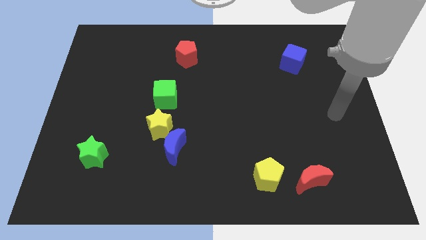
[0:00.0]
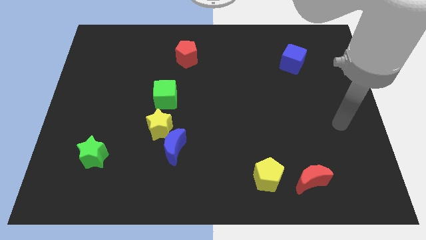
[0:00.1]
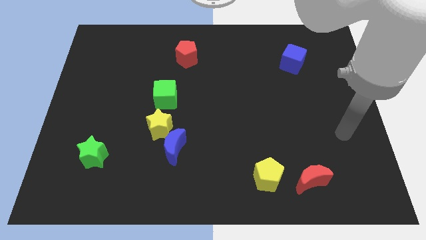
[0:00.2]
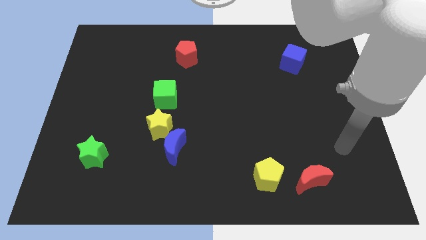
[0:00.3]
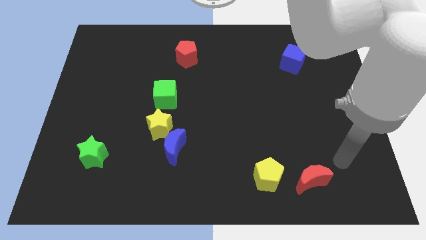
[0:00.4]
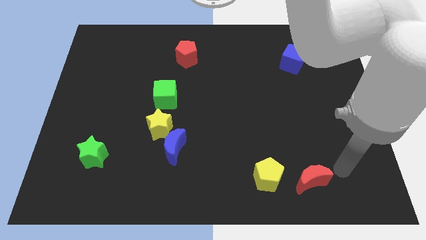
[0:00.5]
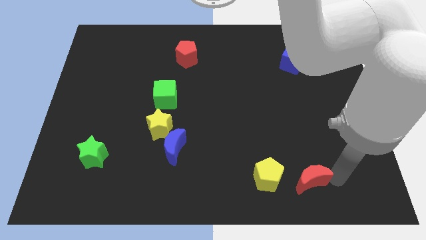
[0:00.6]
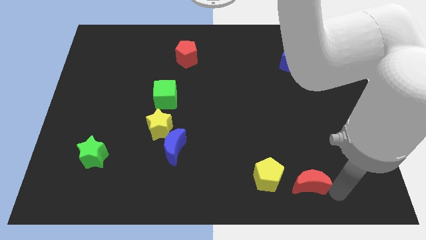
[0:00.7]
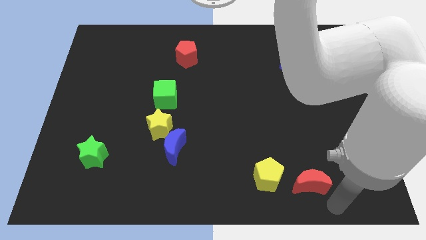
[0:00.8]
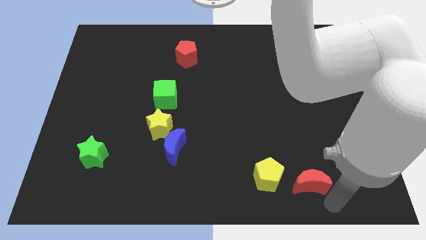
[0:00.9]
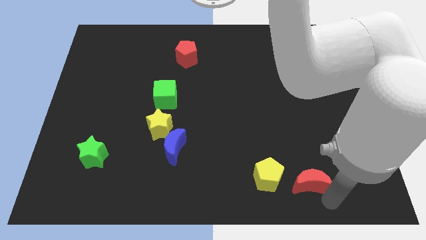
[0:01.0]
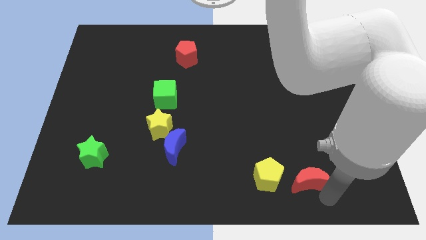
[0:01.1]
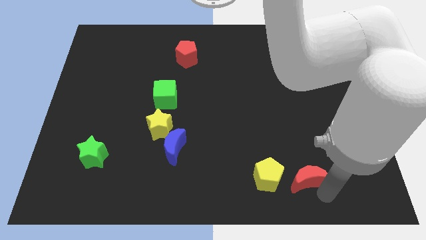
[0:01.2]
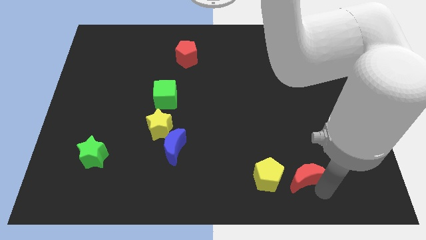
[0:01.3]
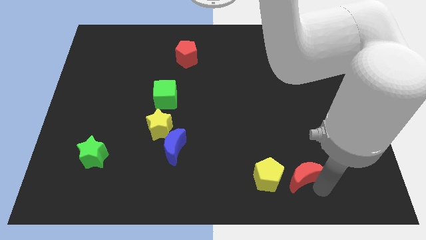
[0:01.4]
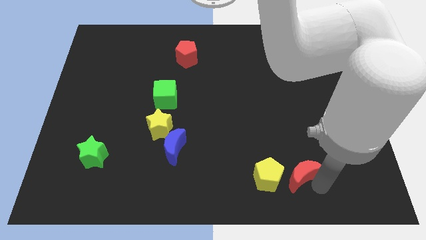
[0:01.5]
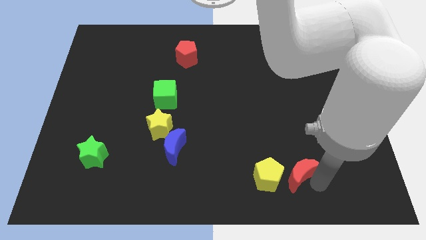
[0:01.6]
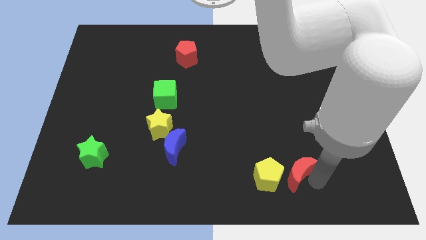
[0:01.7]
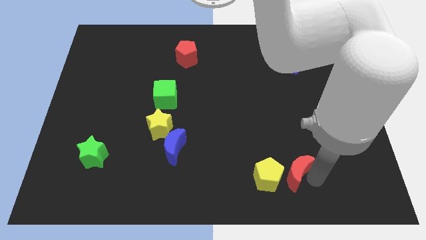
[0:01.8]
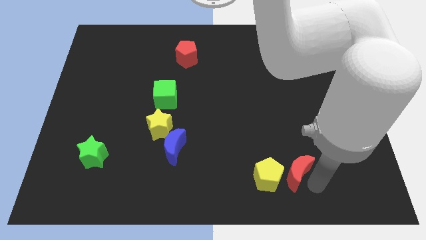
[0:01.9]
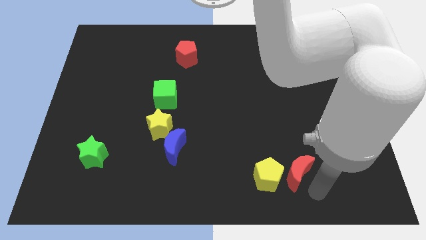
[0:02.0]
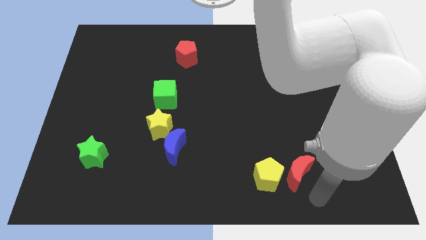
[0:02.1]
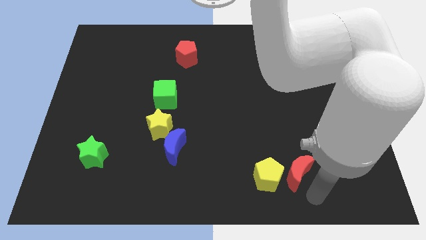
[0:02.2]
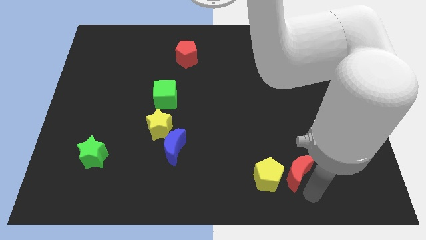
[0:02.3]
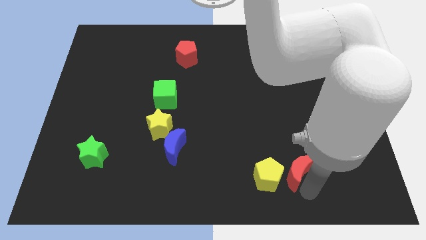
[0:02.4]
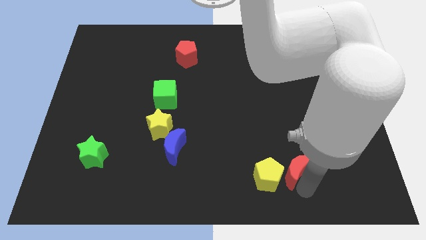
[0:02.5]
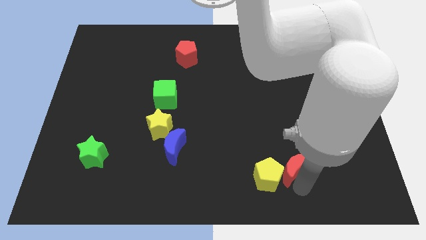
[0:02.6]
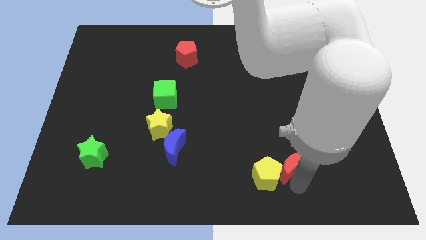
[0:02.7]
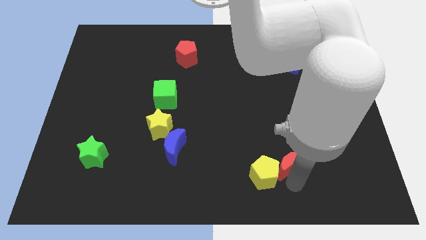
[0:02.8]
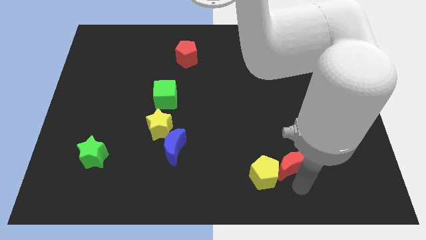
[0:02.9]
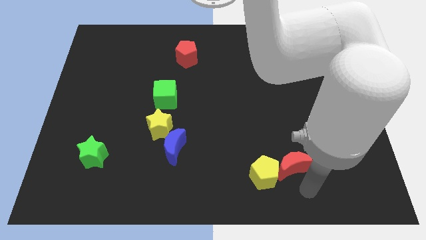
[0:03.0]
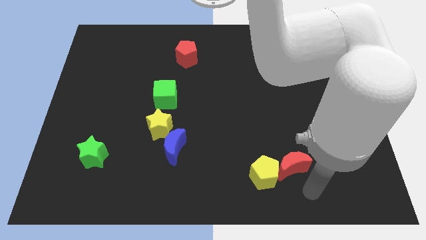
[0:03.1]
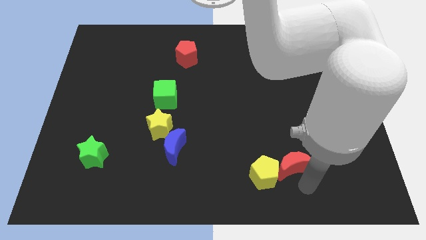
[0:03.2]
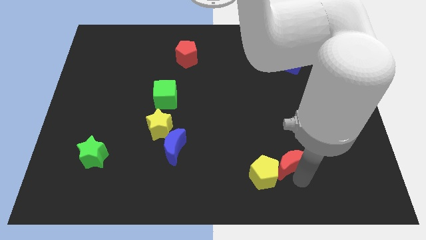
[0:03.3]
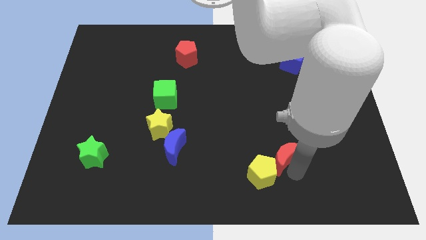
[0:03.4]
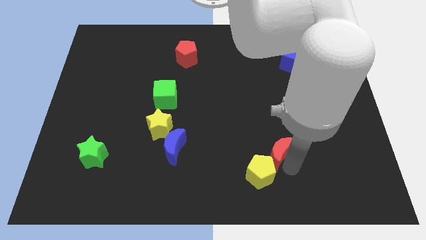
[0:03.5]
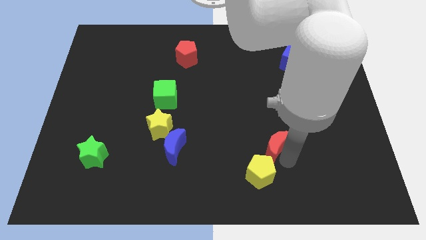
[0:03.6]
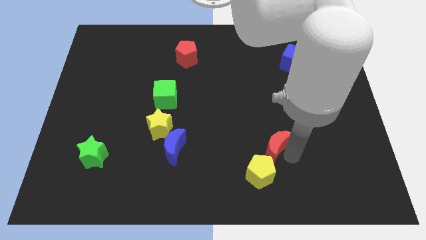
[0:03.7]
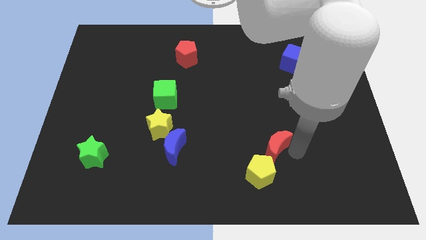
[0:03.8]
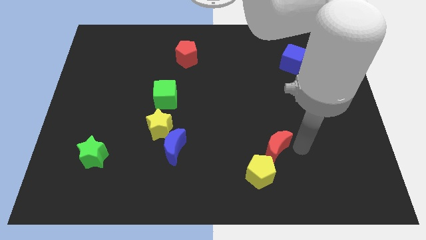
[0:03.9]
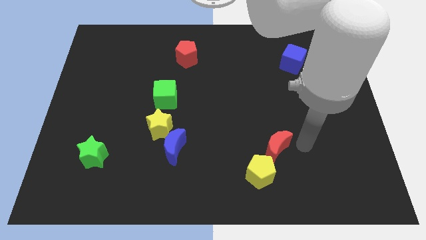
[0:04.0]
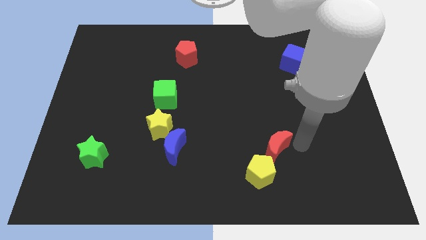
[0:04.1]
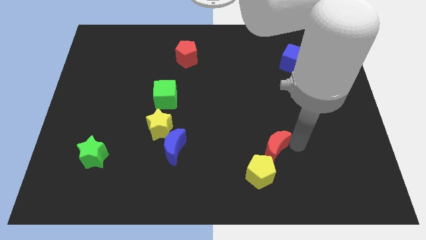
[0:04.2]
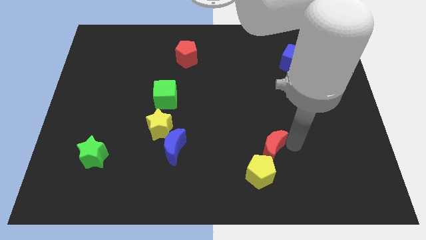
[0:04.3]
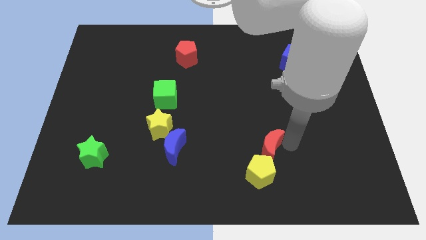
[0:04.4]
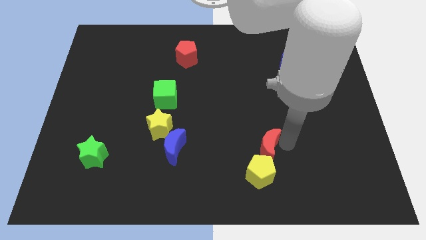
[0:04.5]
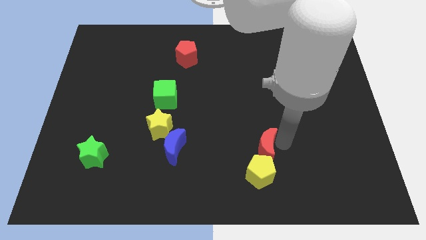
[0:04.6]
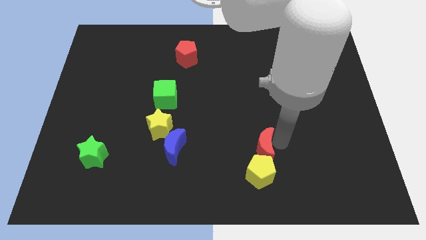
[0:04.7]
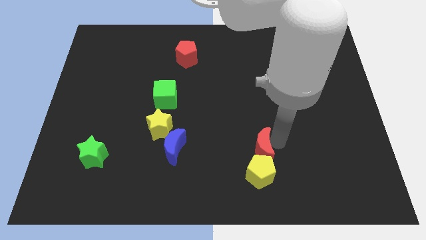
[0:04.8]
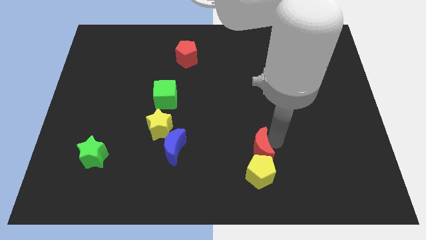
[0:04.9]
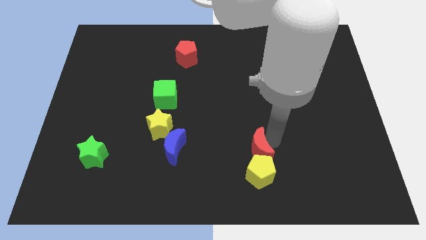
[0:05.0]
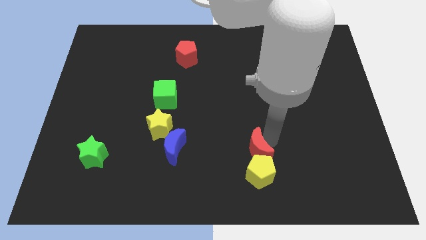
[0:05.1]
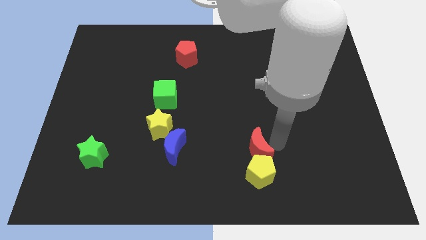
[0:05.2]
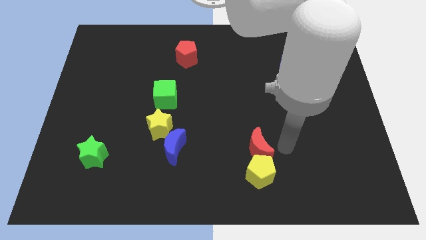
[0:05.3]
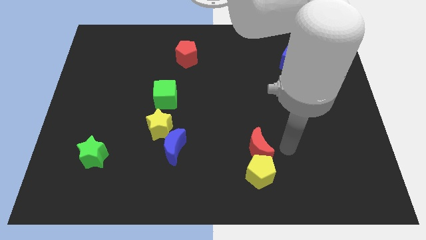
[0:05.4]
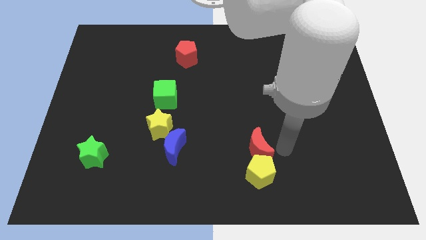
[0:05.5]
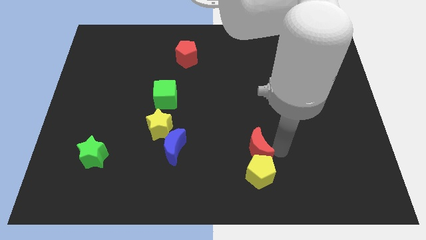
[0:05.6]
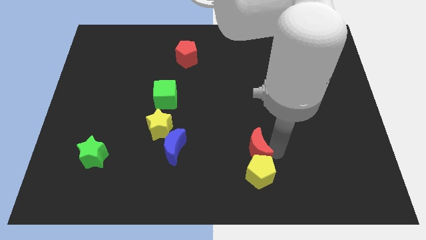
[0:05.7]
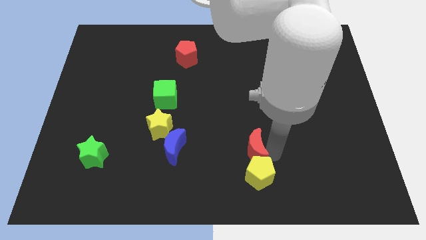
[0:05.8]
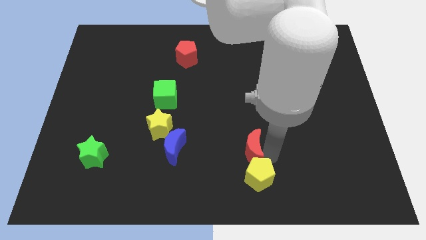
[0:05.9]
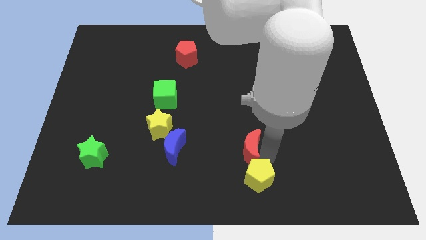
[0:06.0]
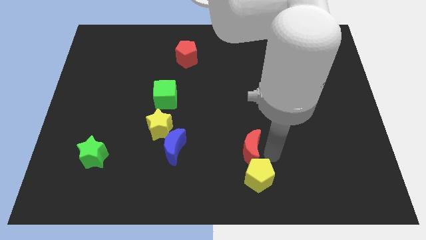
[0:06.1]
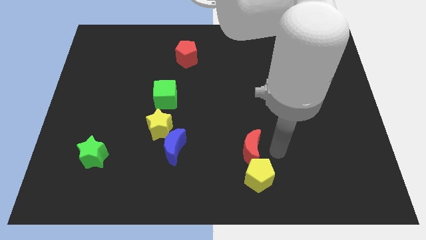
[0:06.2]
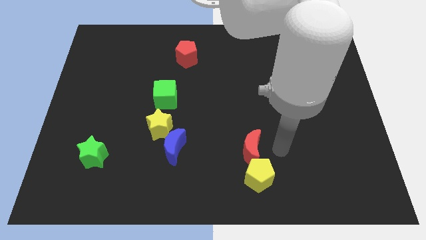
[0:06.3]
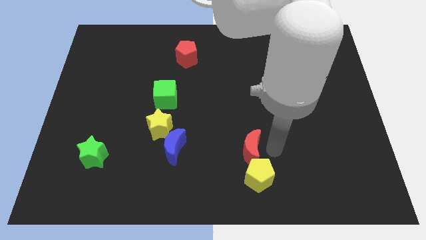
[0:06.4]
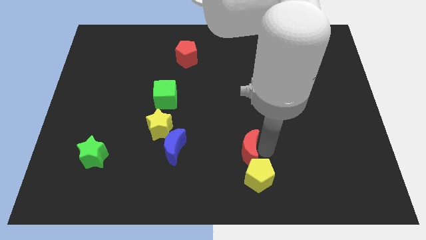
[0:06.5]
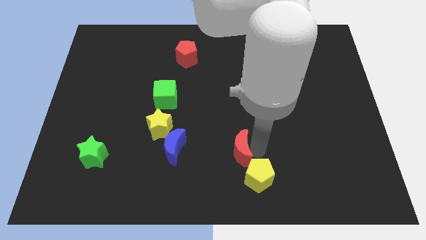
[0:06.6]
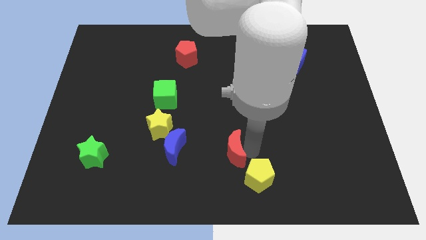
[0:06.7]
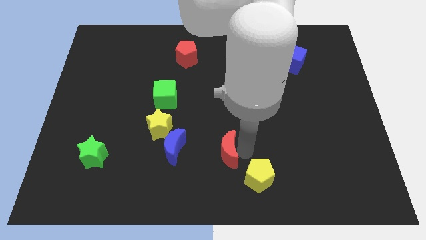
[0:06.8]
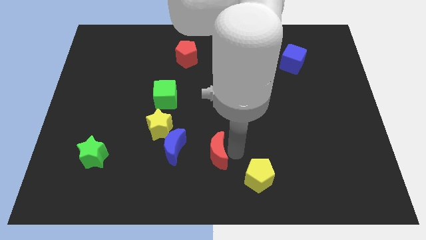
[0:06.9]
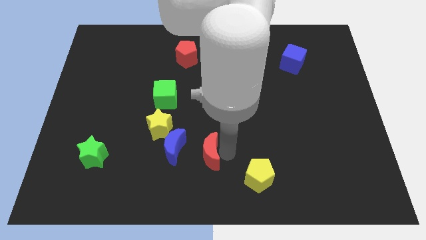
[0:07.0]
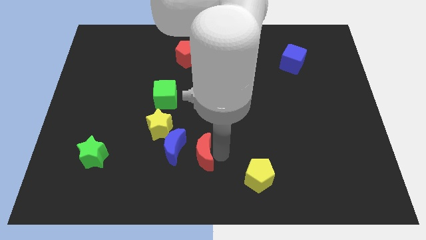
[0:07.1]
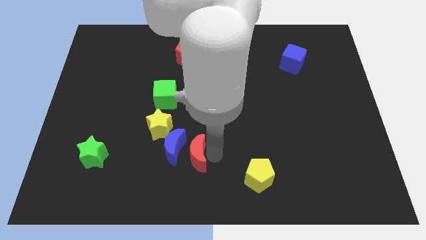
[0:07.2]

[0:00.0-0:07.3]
push the red moon towards the blue moon

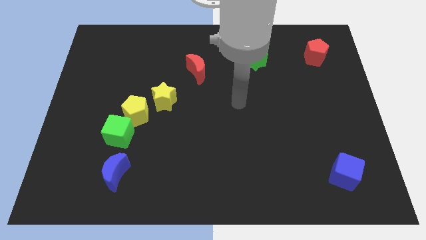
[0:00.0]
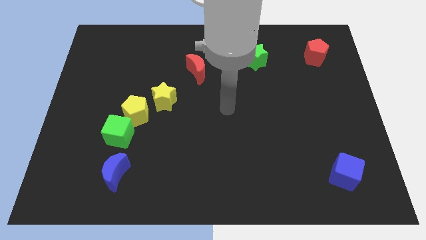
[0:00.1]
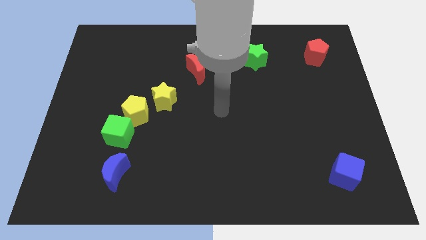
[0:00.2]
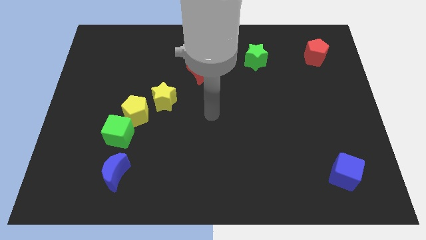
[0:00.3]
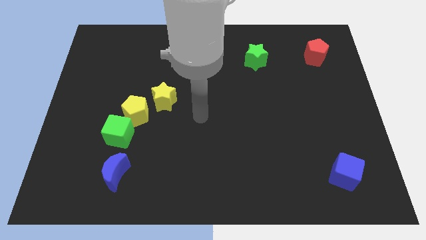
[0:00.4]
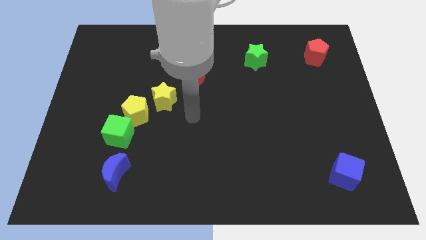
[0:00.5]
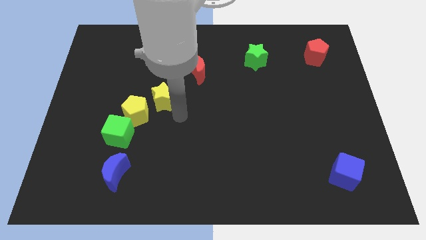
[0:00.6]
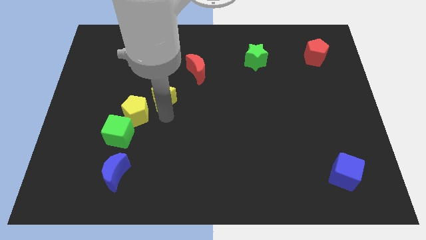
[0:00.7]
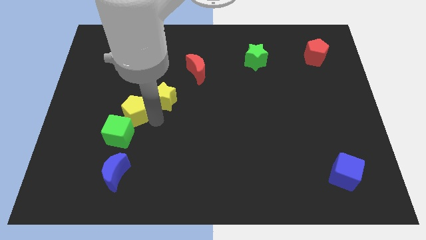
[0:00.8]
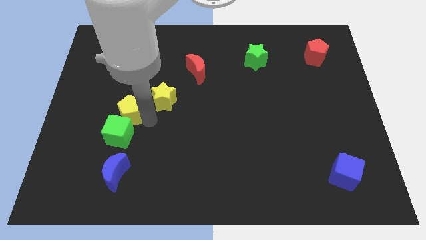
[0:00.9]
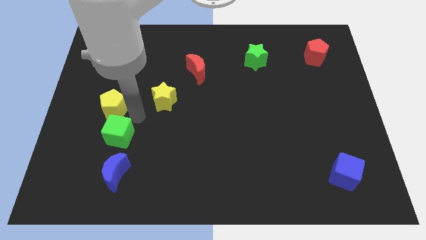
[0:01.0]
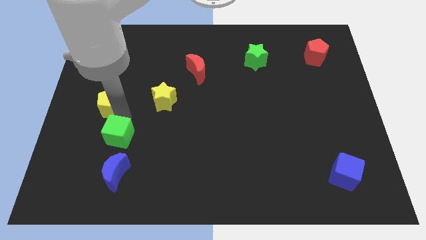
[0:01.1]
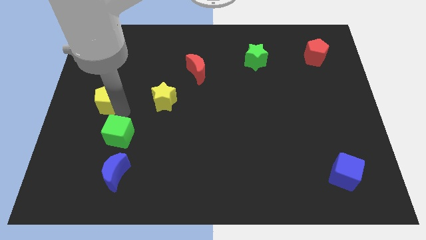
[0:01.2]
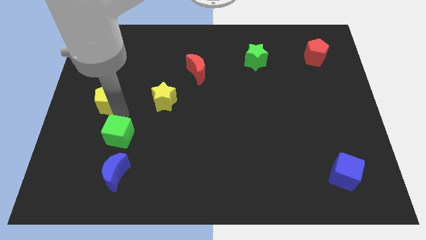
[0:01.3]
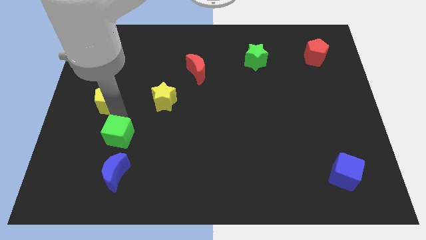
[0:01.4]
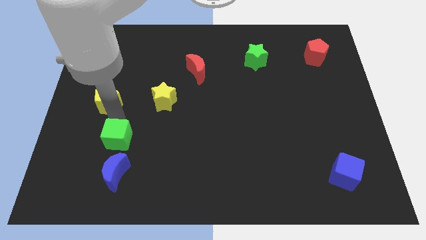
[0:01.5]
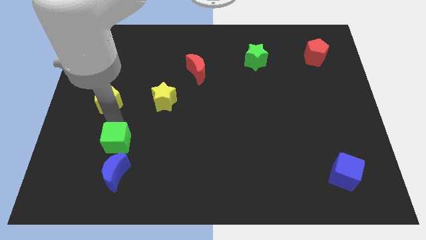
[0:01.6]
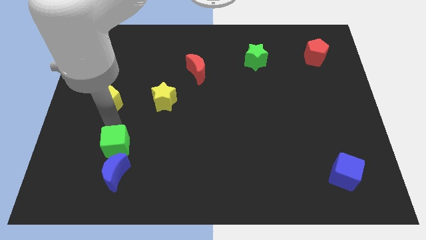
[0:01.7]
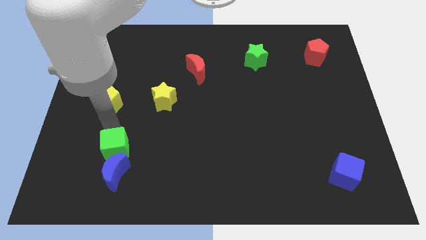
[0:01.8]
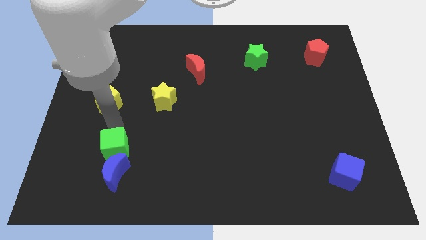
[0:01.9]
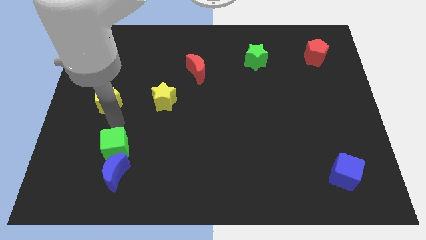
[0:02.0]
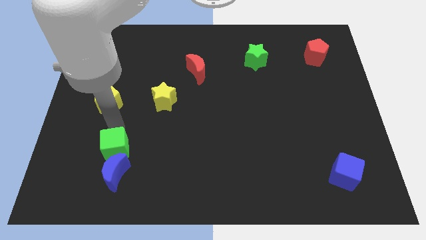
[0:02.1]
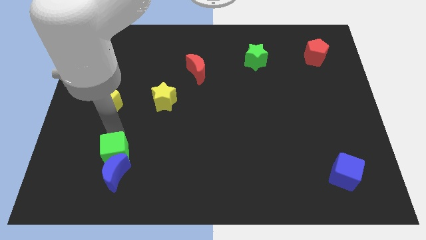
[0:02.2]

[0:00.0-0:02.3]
push the green cube towards the blue moon
